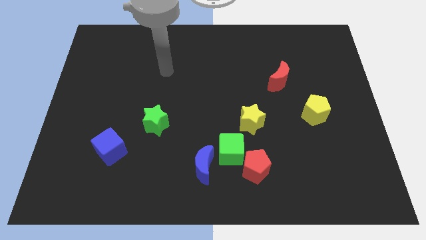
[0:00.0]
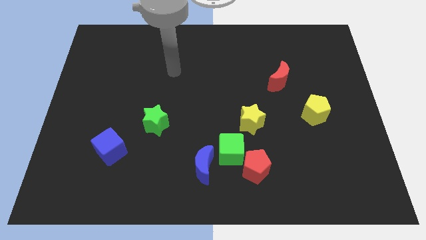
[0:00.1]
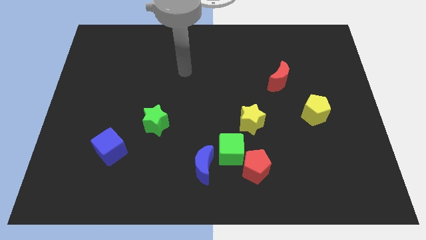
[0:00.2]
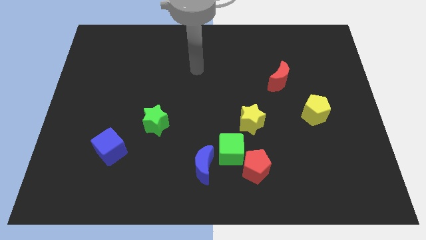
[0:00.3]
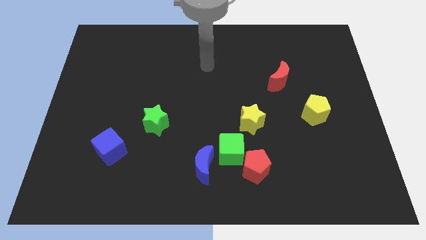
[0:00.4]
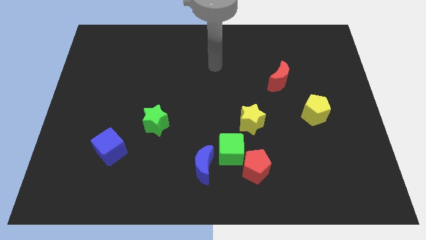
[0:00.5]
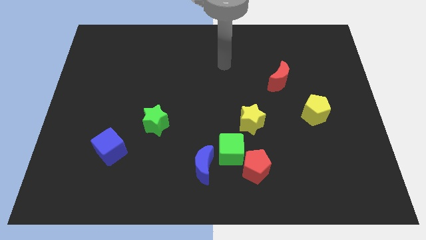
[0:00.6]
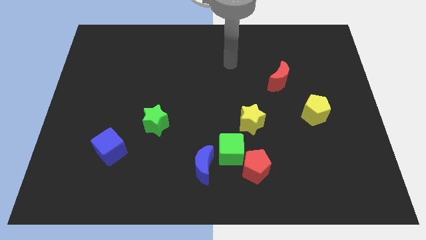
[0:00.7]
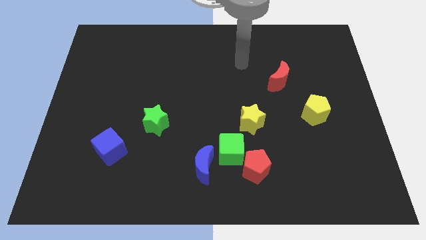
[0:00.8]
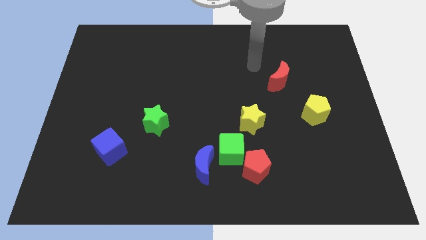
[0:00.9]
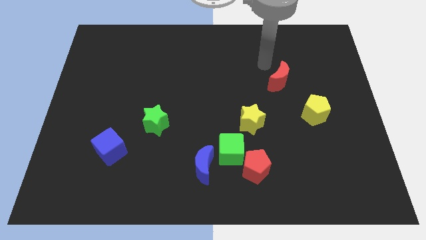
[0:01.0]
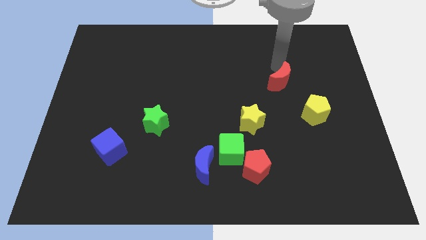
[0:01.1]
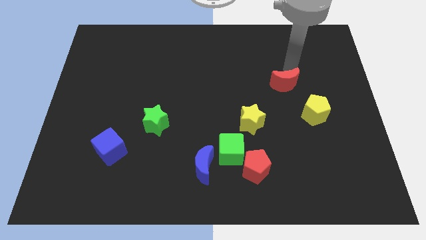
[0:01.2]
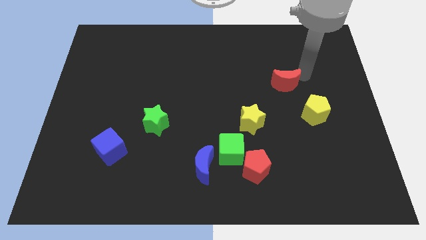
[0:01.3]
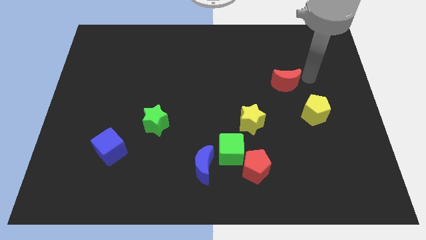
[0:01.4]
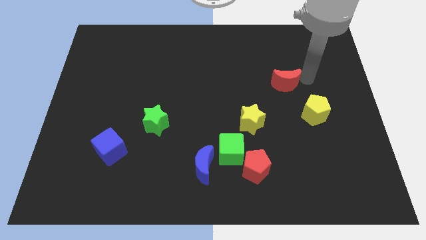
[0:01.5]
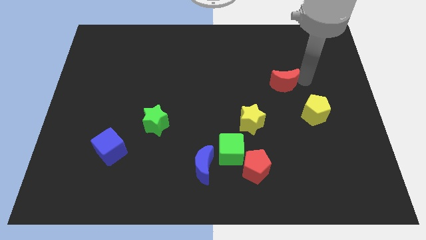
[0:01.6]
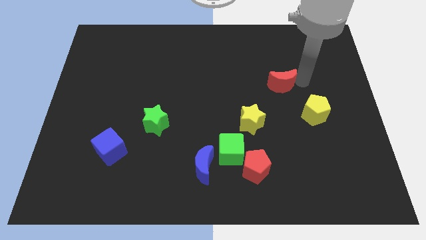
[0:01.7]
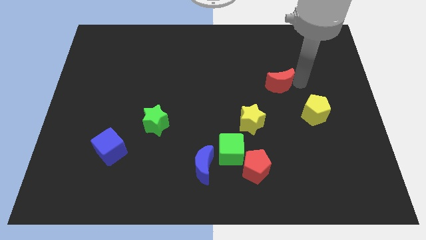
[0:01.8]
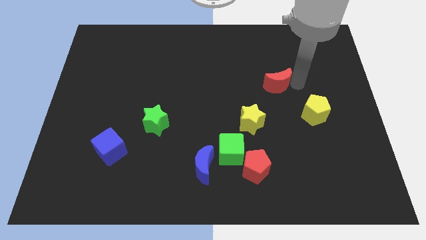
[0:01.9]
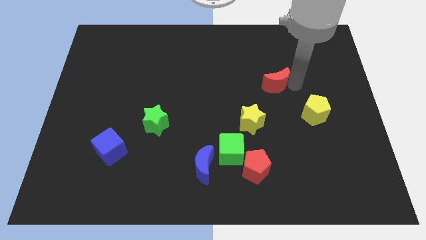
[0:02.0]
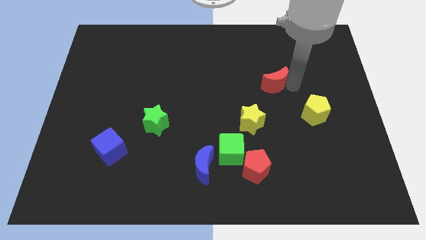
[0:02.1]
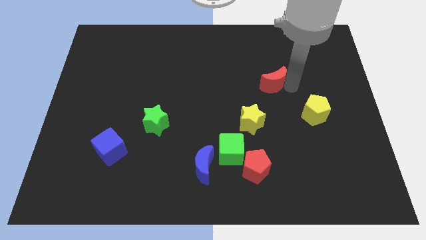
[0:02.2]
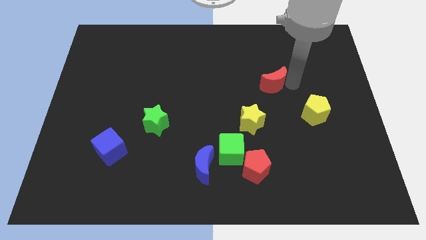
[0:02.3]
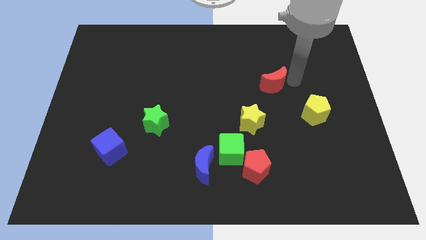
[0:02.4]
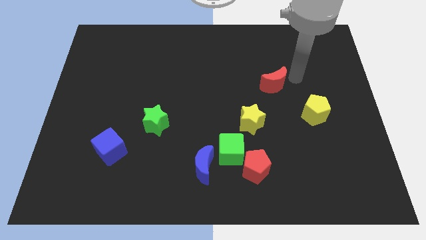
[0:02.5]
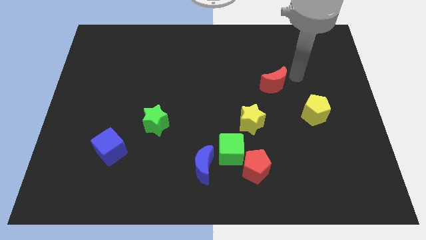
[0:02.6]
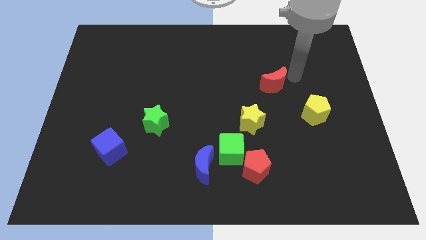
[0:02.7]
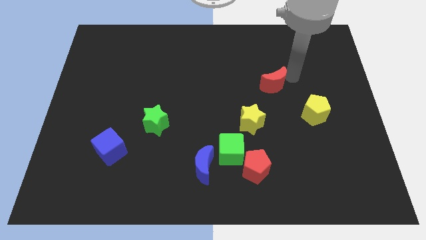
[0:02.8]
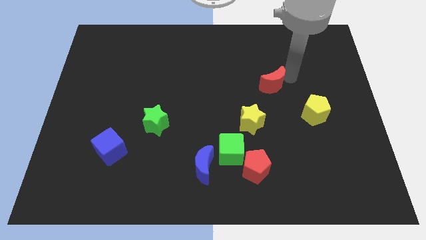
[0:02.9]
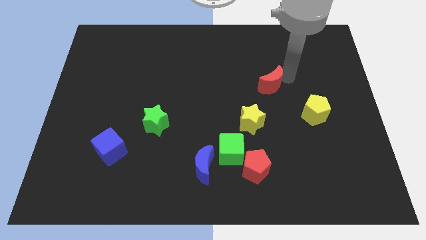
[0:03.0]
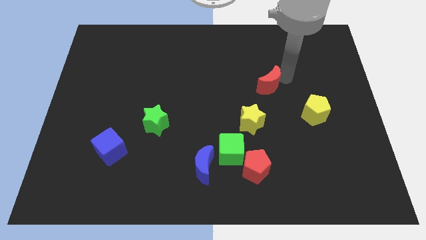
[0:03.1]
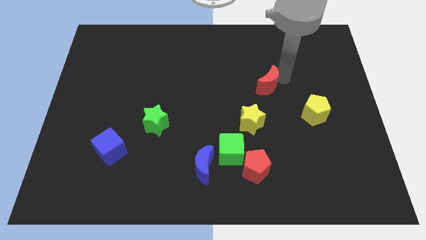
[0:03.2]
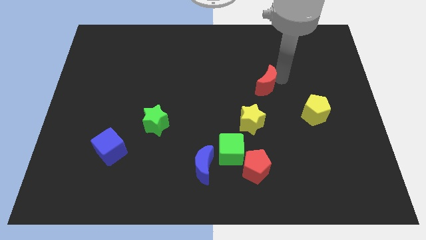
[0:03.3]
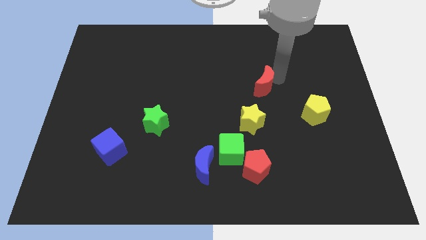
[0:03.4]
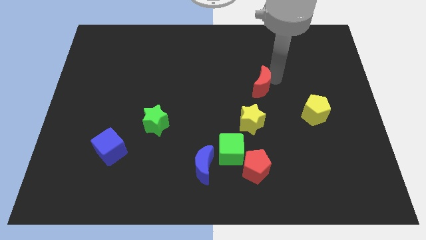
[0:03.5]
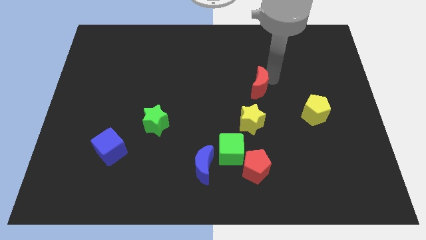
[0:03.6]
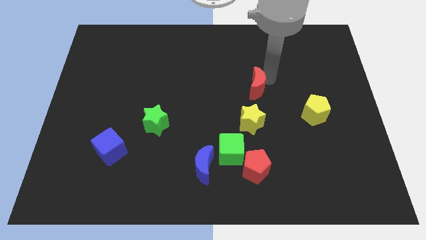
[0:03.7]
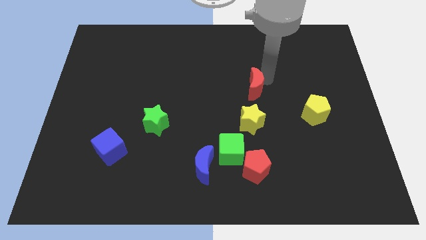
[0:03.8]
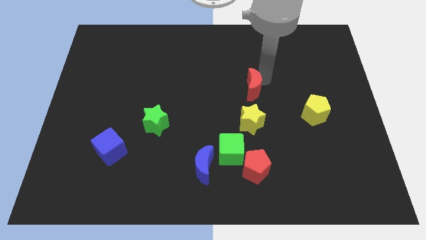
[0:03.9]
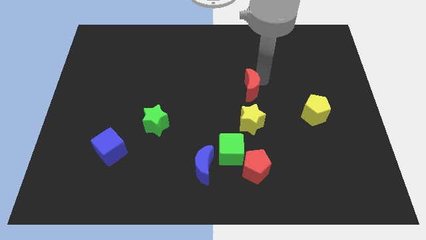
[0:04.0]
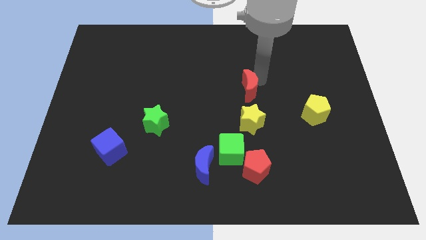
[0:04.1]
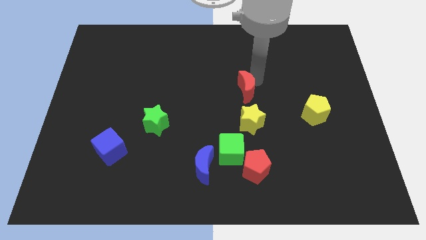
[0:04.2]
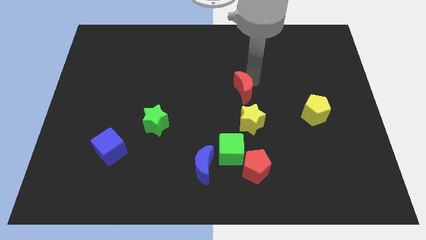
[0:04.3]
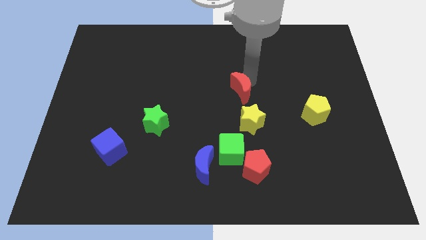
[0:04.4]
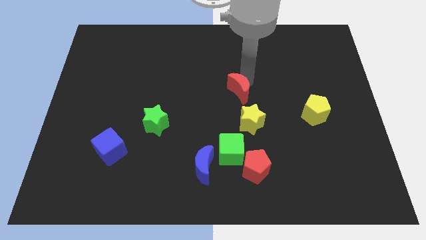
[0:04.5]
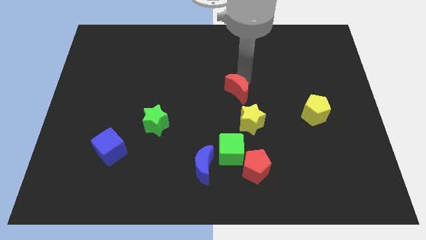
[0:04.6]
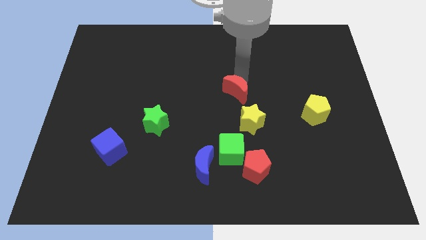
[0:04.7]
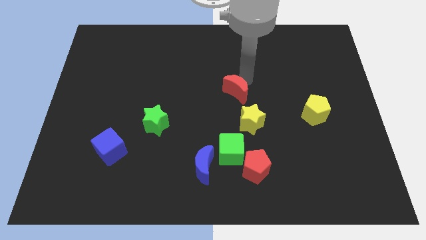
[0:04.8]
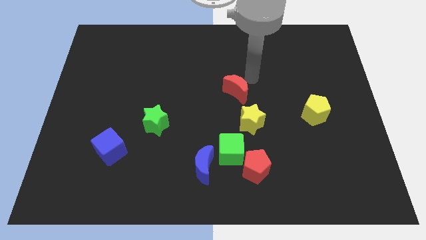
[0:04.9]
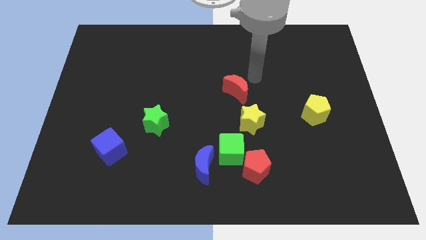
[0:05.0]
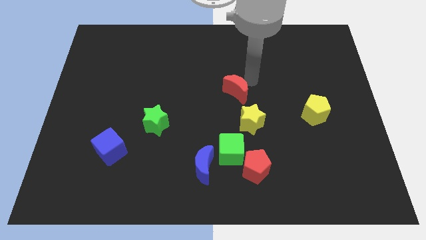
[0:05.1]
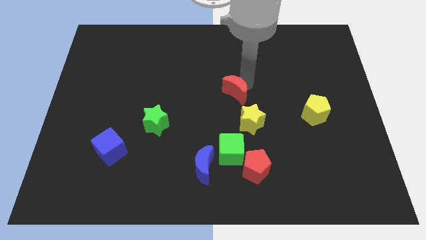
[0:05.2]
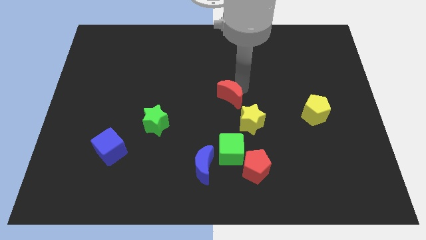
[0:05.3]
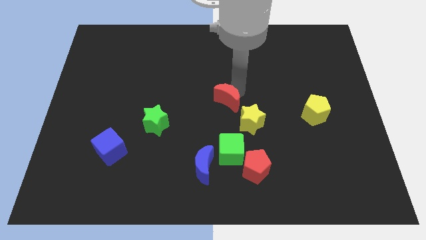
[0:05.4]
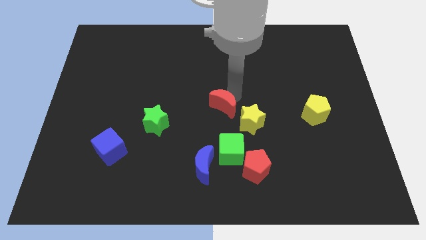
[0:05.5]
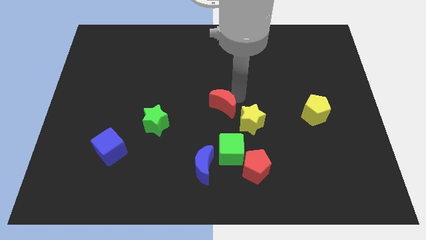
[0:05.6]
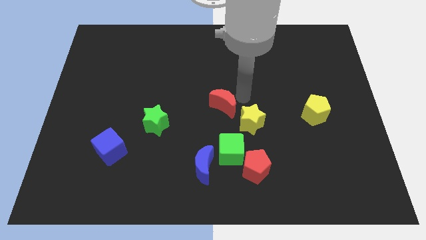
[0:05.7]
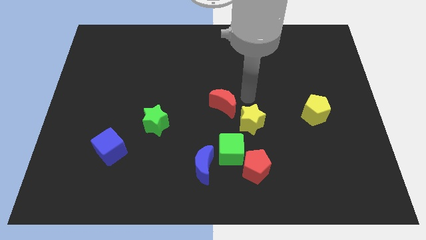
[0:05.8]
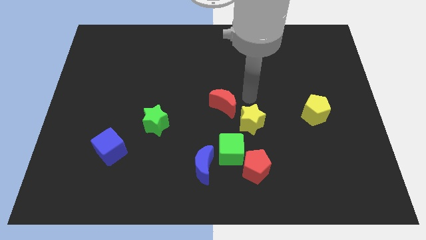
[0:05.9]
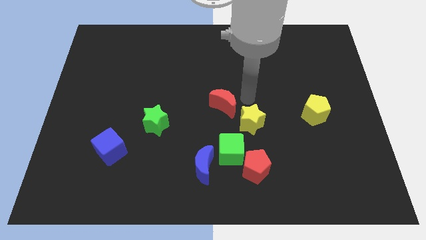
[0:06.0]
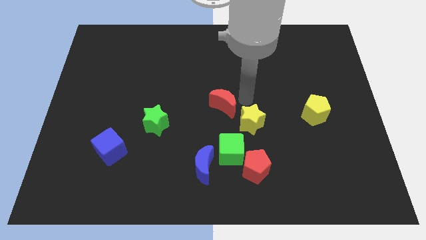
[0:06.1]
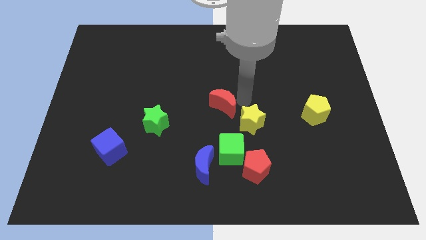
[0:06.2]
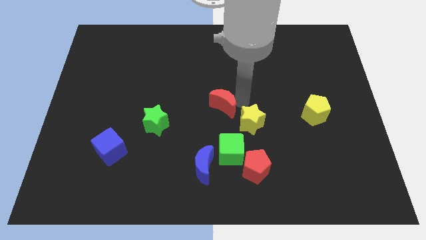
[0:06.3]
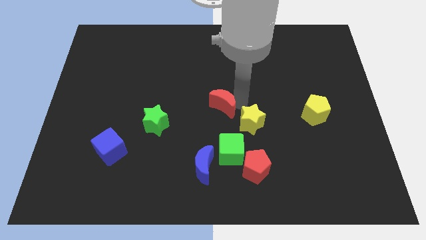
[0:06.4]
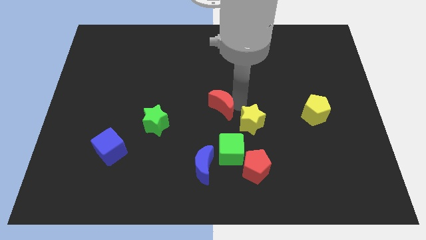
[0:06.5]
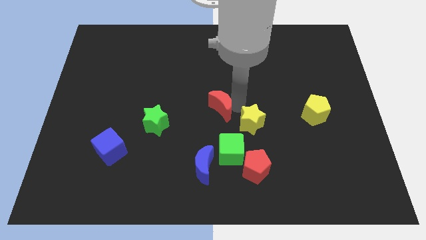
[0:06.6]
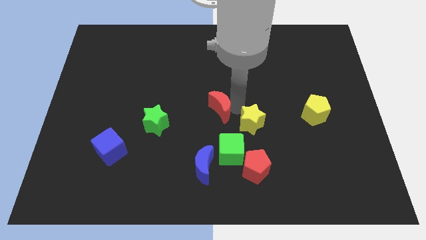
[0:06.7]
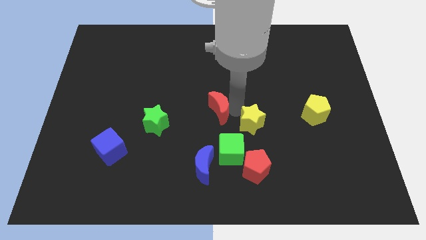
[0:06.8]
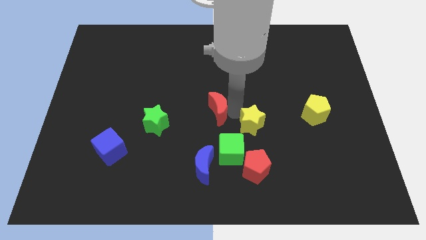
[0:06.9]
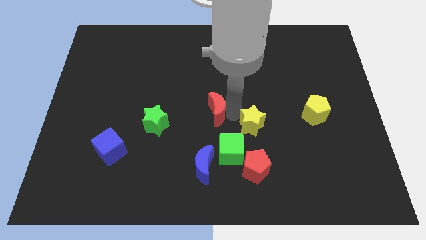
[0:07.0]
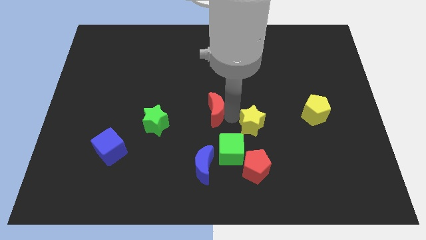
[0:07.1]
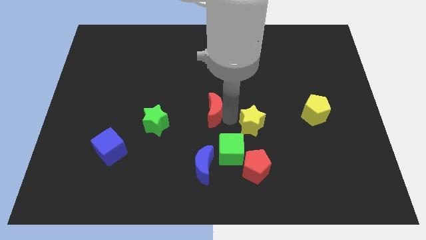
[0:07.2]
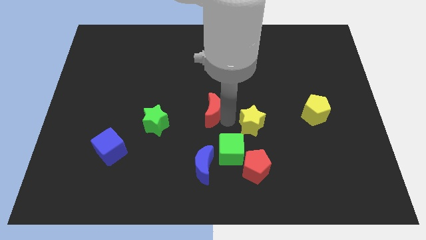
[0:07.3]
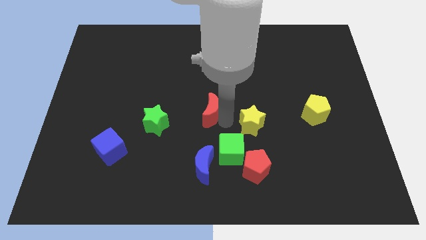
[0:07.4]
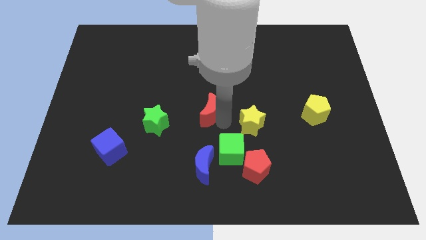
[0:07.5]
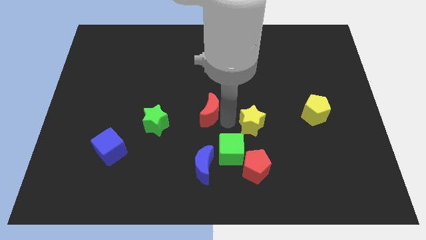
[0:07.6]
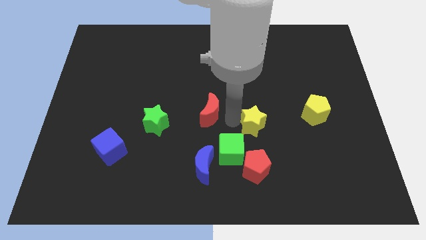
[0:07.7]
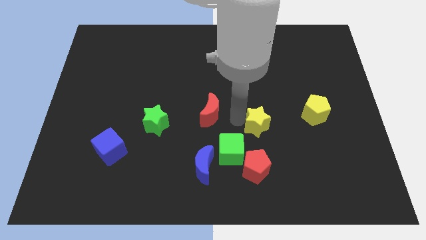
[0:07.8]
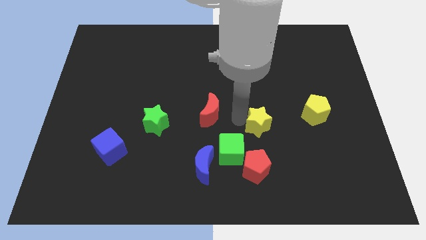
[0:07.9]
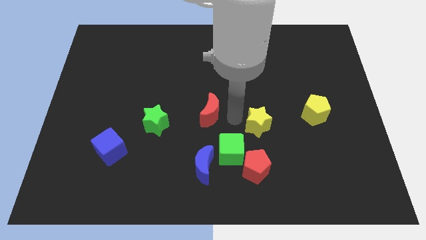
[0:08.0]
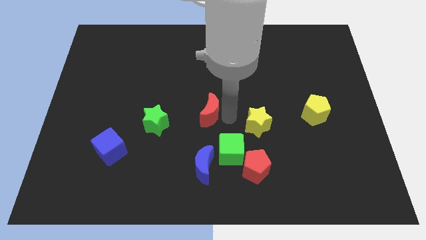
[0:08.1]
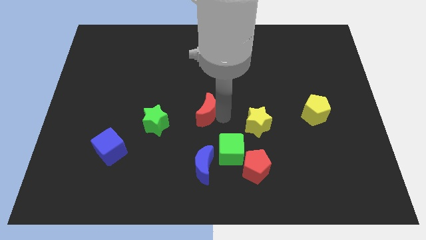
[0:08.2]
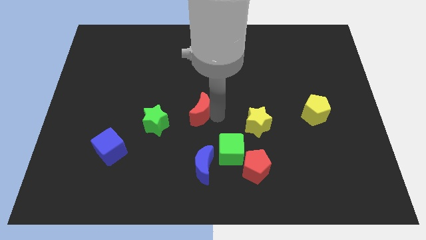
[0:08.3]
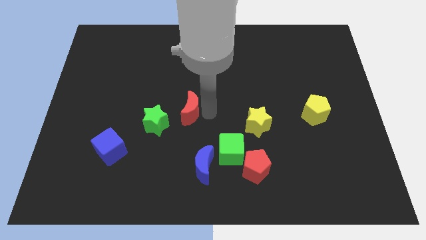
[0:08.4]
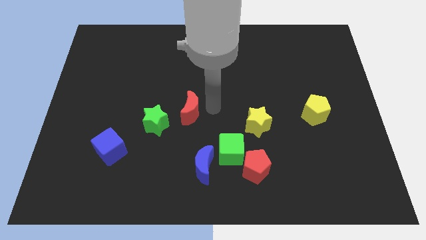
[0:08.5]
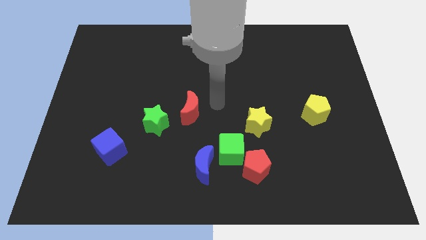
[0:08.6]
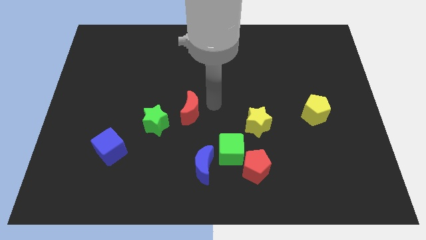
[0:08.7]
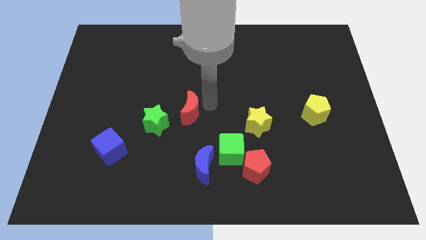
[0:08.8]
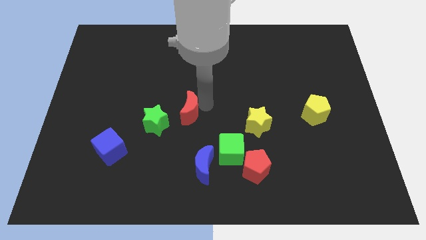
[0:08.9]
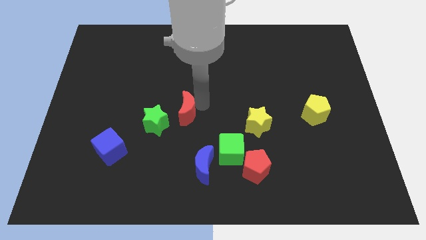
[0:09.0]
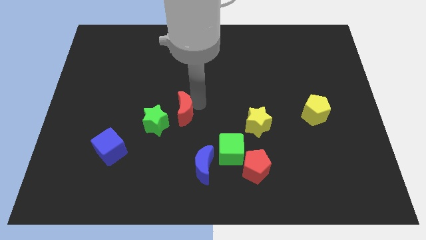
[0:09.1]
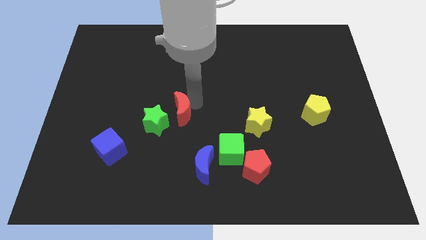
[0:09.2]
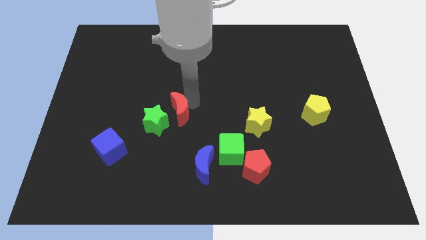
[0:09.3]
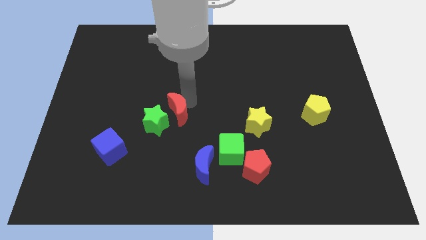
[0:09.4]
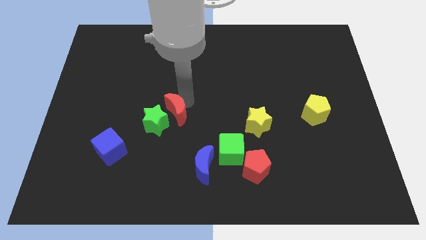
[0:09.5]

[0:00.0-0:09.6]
slide the red moon to the green star
